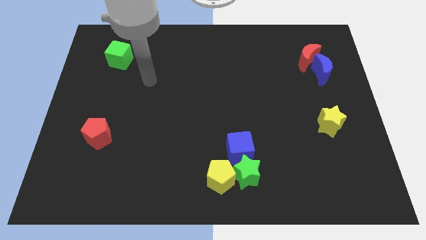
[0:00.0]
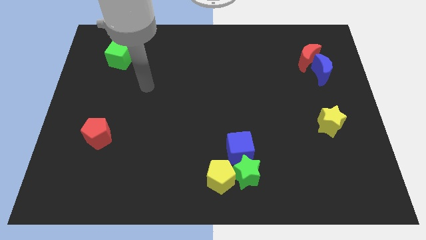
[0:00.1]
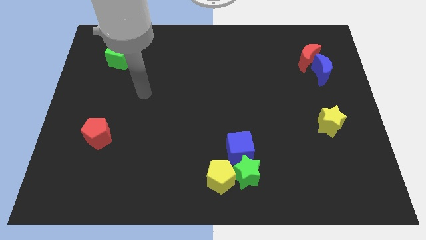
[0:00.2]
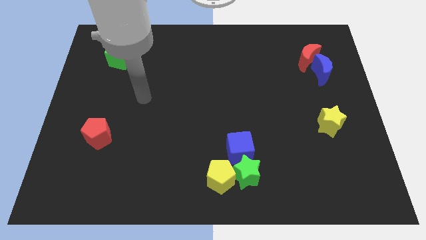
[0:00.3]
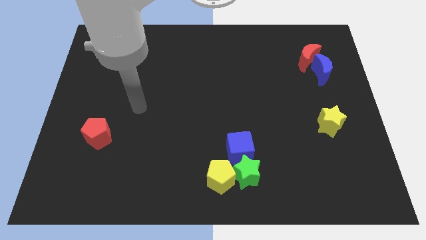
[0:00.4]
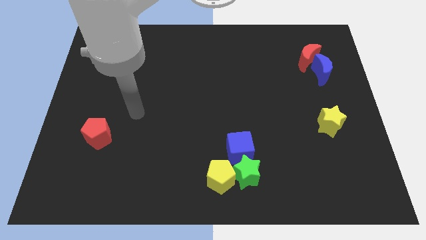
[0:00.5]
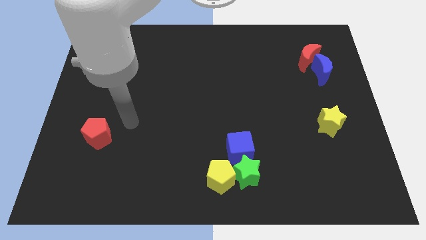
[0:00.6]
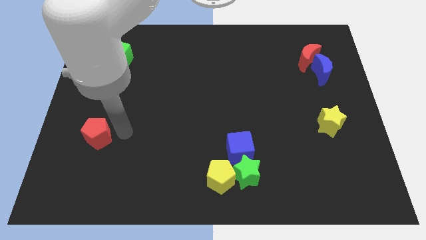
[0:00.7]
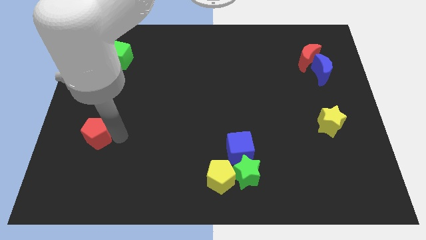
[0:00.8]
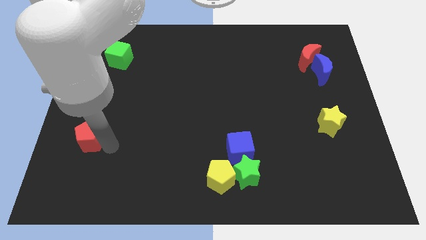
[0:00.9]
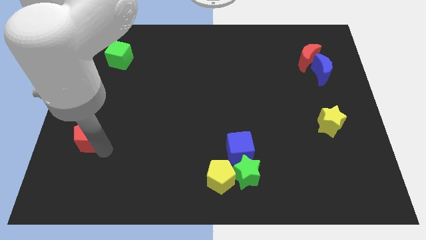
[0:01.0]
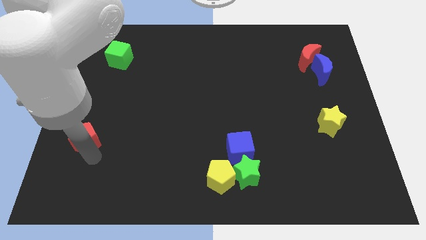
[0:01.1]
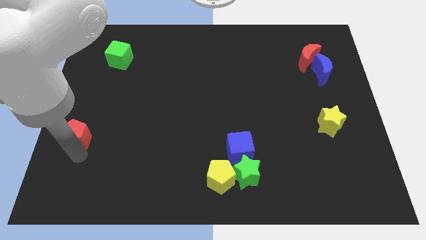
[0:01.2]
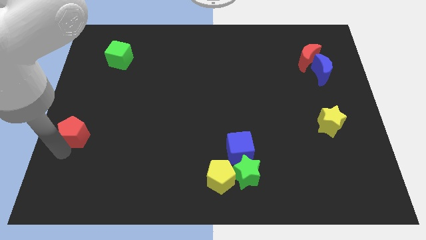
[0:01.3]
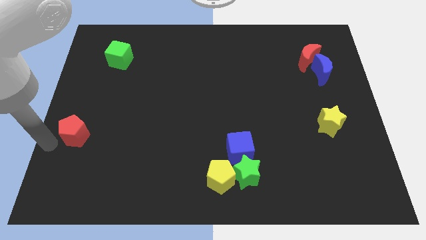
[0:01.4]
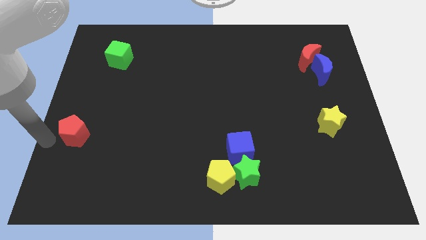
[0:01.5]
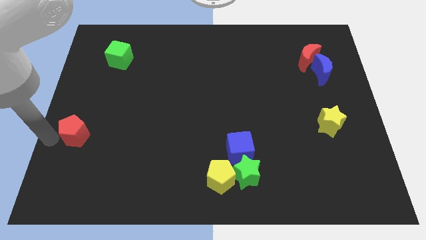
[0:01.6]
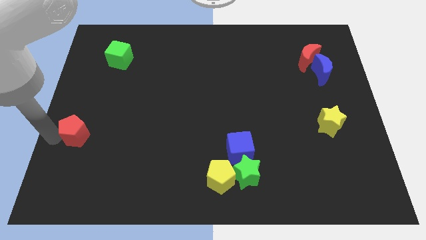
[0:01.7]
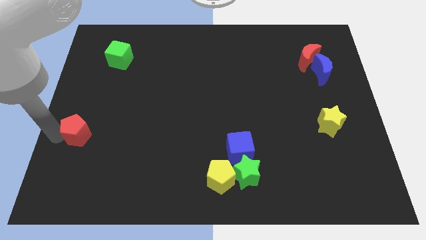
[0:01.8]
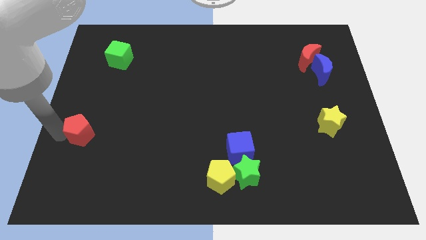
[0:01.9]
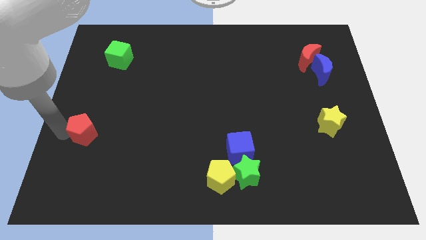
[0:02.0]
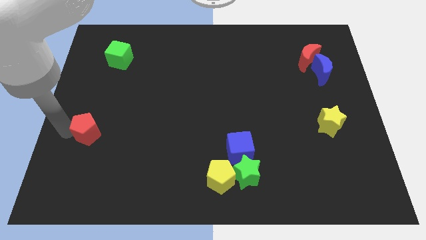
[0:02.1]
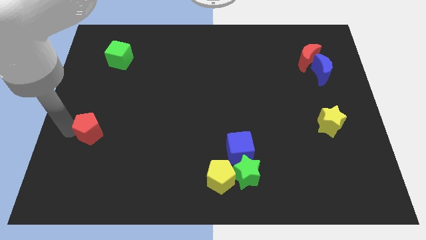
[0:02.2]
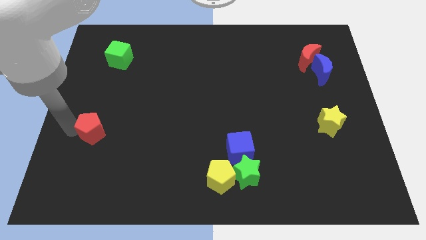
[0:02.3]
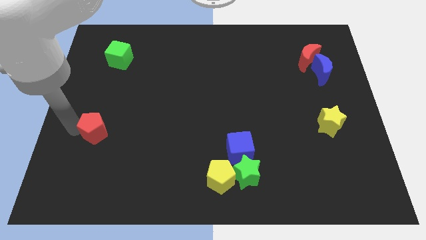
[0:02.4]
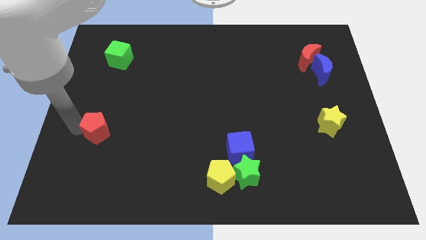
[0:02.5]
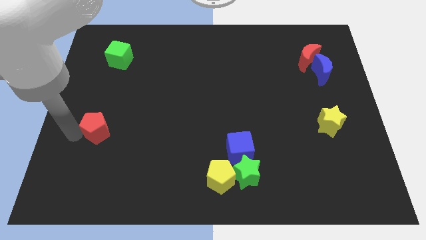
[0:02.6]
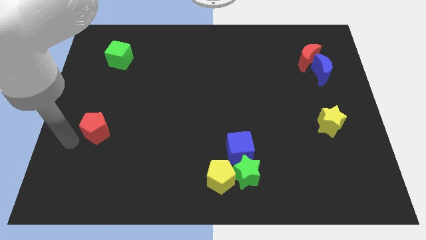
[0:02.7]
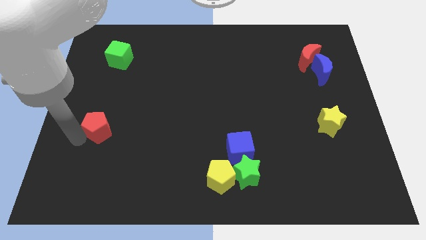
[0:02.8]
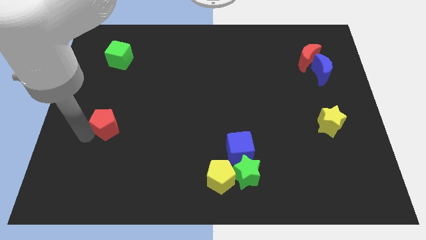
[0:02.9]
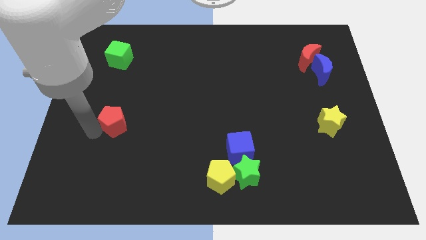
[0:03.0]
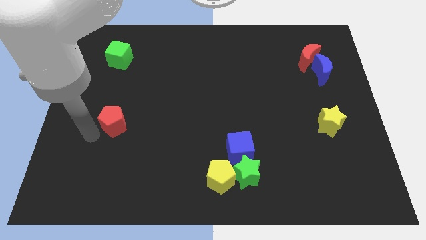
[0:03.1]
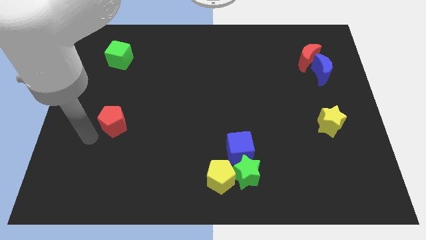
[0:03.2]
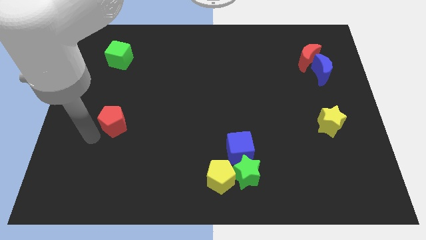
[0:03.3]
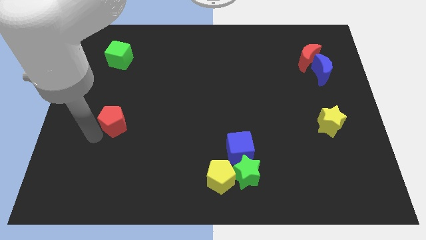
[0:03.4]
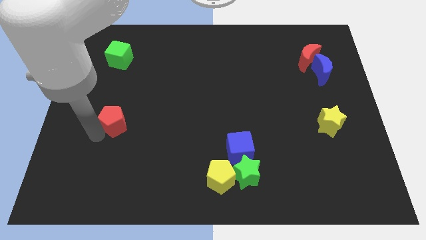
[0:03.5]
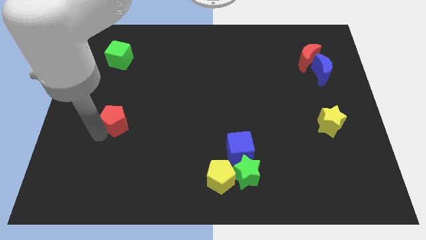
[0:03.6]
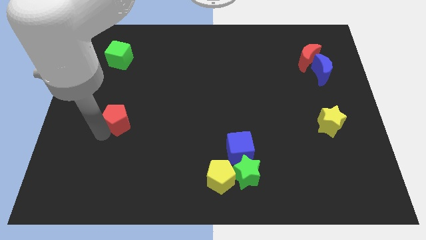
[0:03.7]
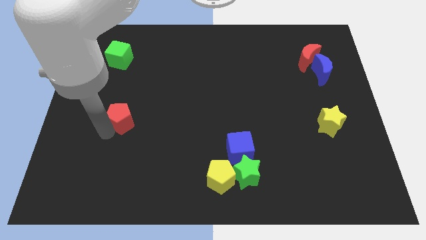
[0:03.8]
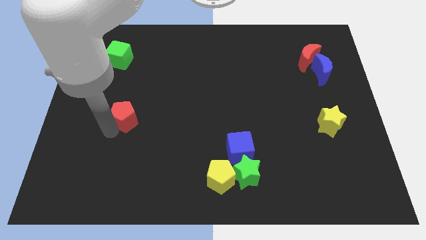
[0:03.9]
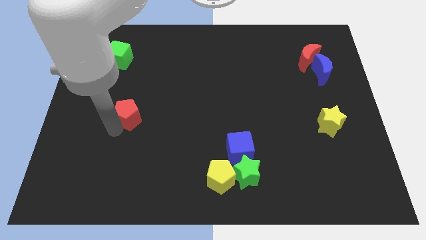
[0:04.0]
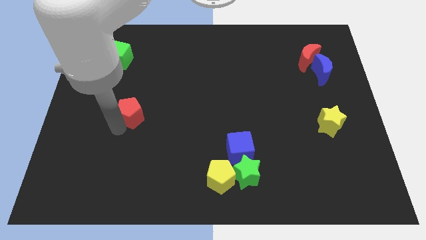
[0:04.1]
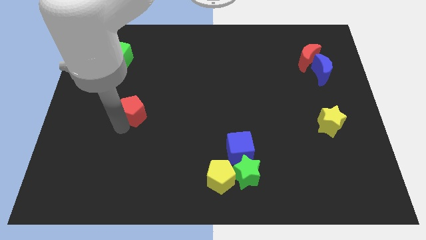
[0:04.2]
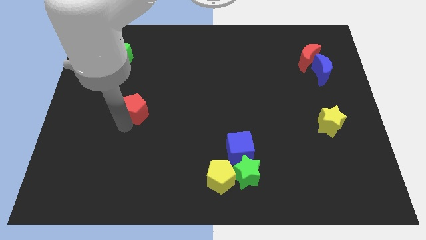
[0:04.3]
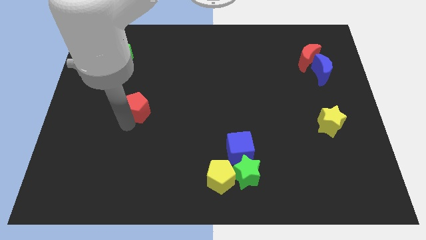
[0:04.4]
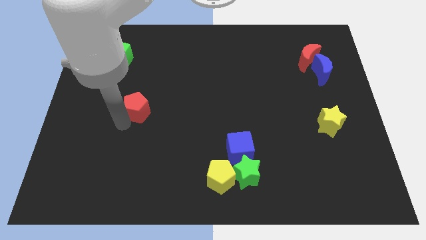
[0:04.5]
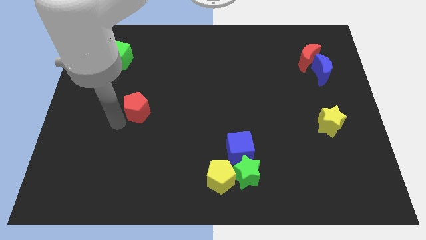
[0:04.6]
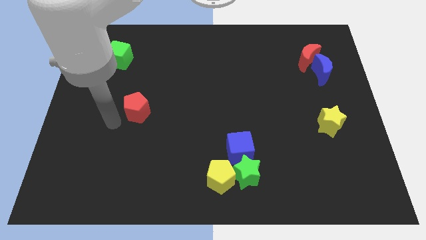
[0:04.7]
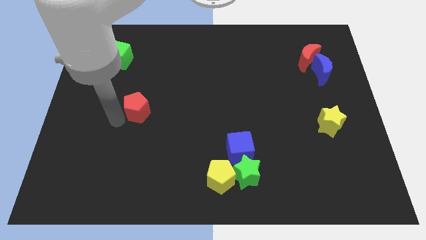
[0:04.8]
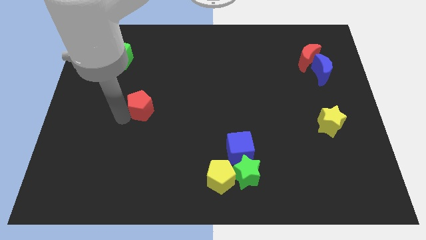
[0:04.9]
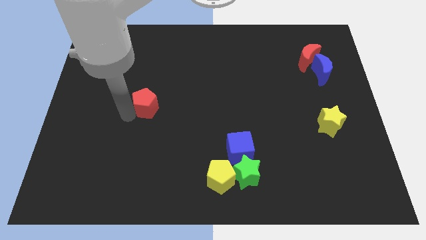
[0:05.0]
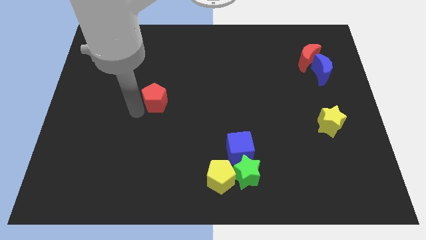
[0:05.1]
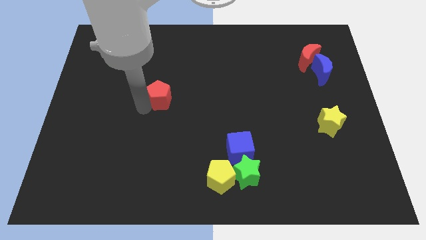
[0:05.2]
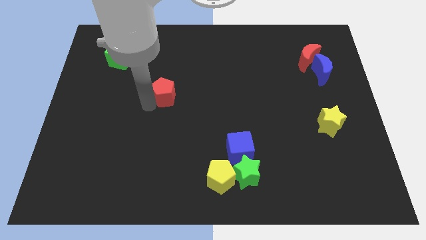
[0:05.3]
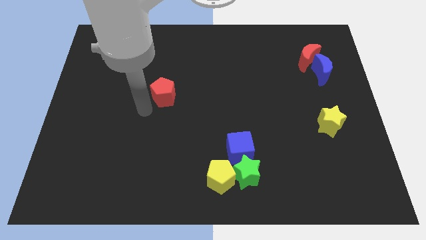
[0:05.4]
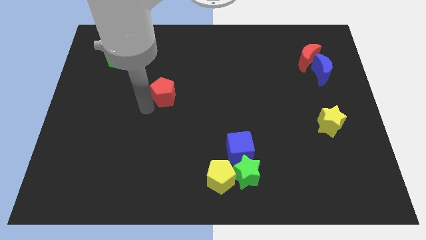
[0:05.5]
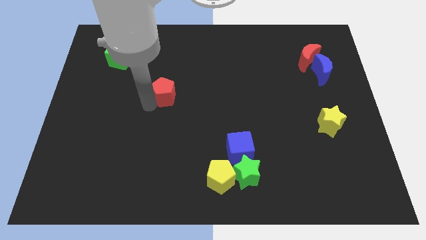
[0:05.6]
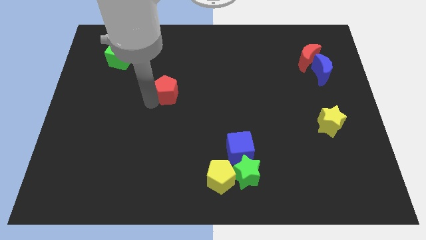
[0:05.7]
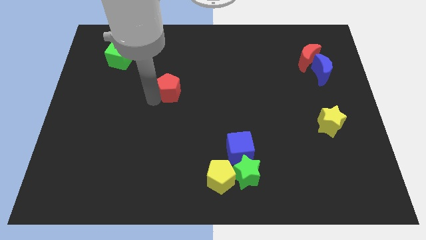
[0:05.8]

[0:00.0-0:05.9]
push the red pentagon upwards and then to the right

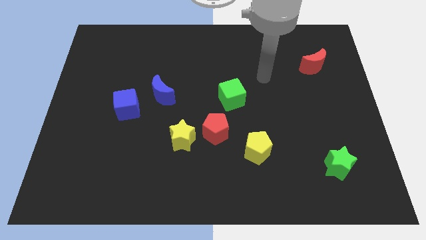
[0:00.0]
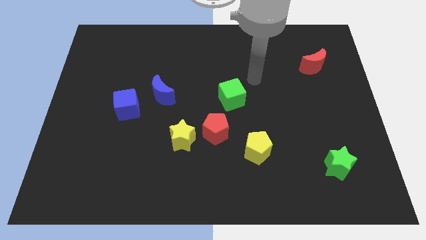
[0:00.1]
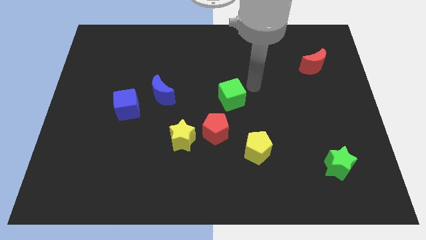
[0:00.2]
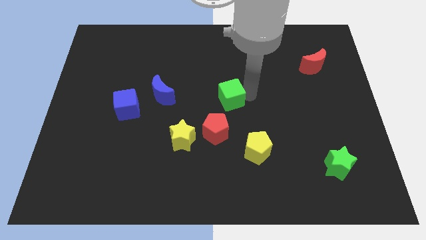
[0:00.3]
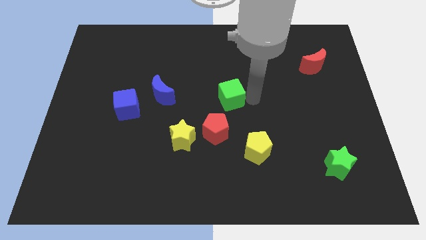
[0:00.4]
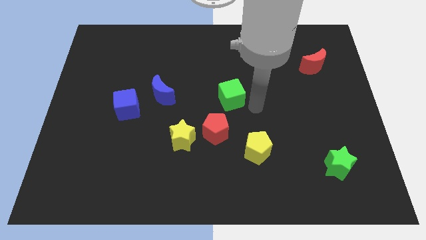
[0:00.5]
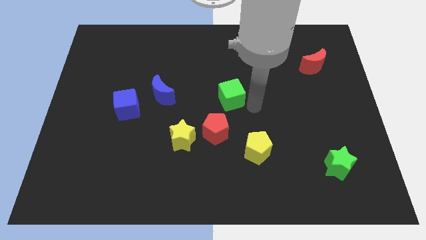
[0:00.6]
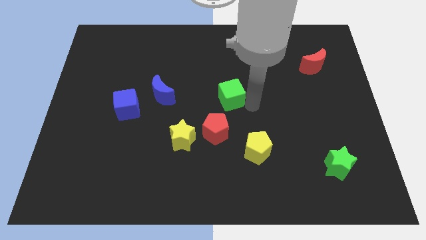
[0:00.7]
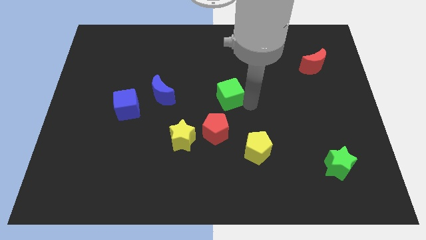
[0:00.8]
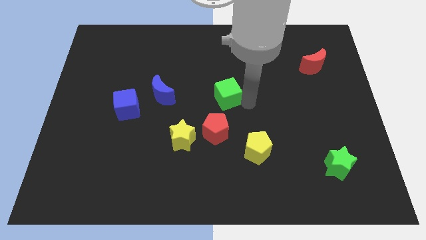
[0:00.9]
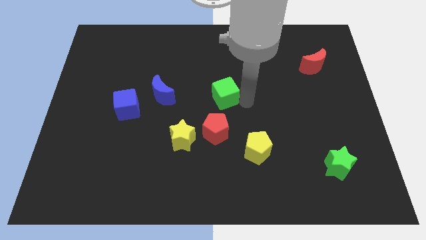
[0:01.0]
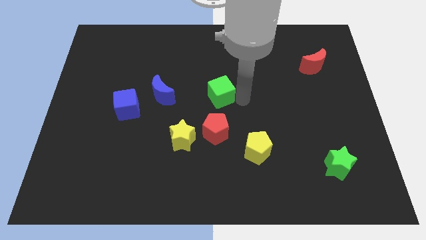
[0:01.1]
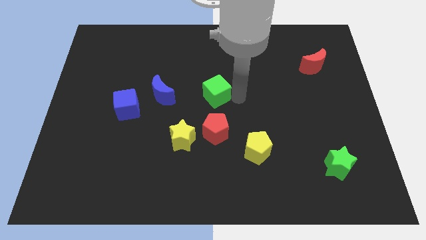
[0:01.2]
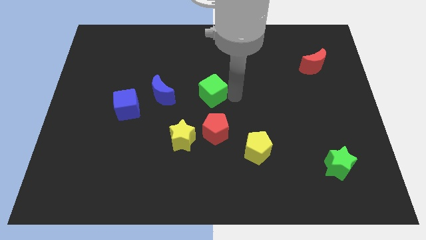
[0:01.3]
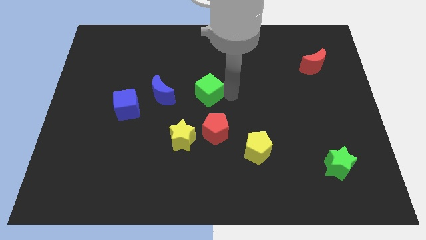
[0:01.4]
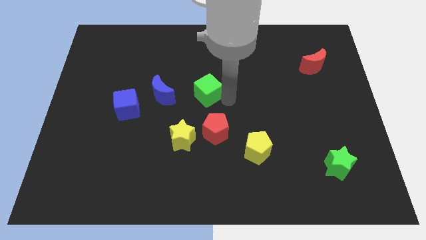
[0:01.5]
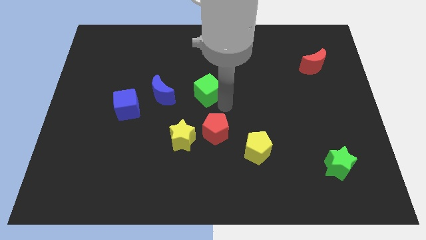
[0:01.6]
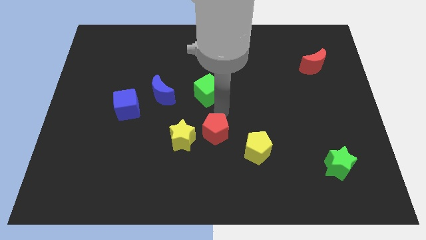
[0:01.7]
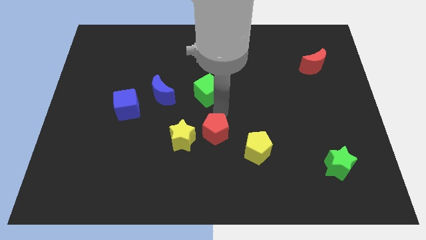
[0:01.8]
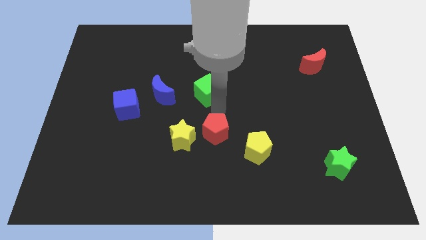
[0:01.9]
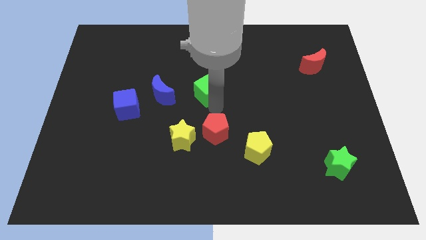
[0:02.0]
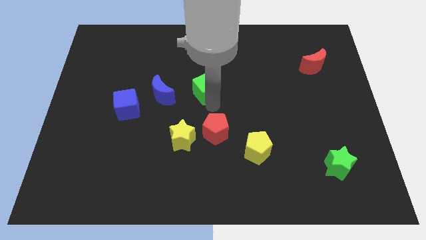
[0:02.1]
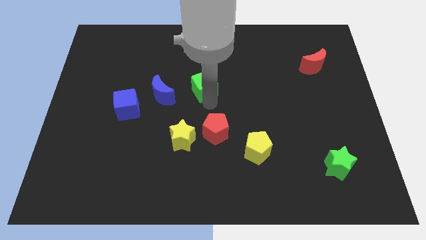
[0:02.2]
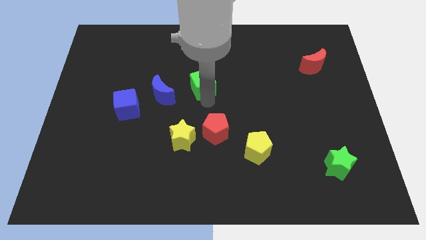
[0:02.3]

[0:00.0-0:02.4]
move the green cube upwards and then left a bit
